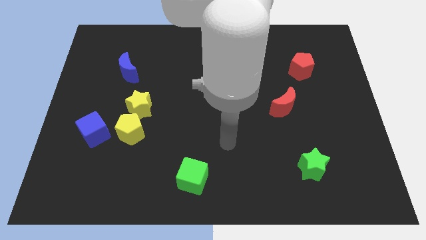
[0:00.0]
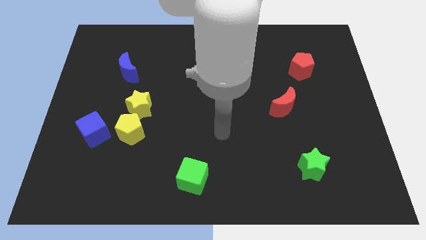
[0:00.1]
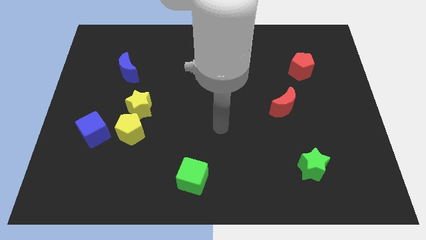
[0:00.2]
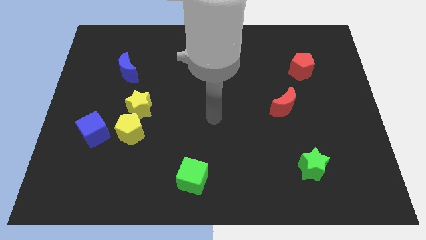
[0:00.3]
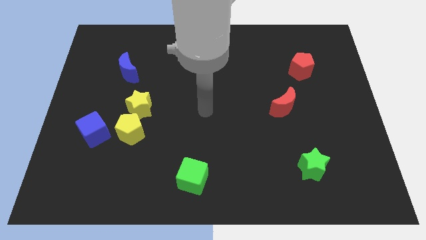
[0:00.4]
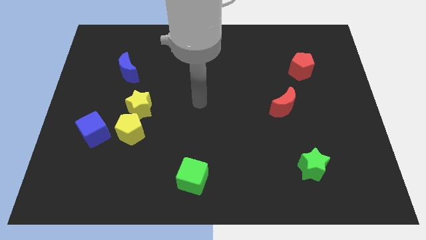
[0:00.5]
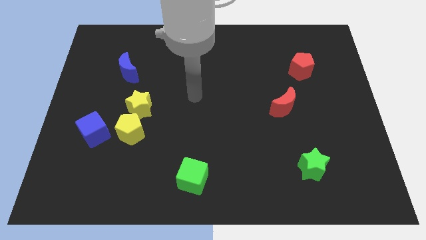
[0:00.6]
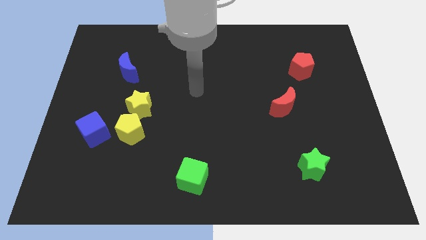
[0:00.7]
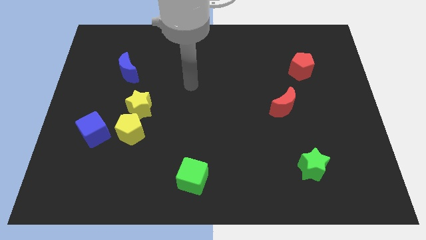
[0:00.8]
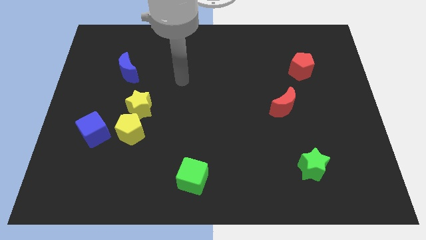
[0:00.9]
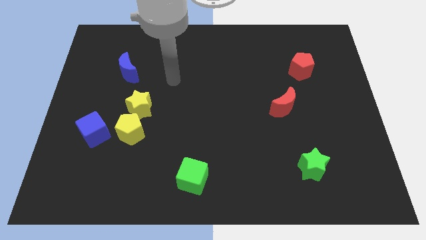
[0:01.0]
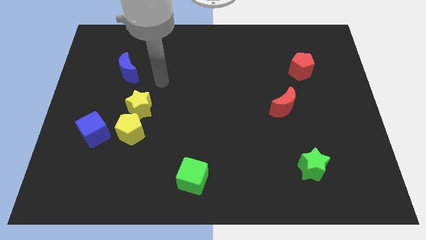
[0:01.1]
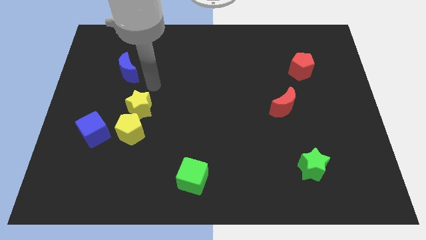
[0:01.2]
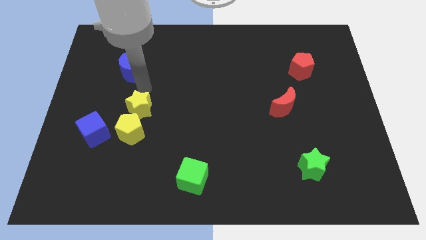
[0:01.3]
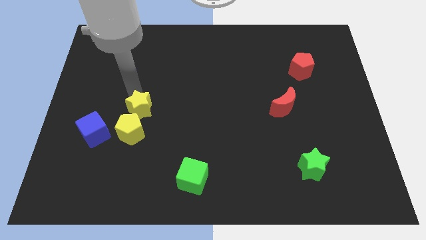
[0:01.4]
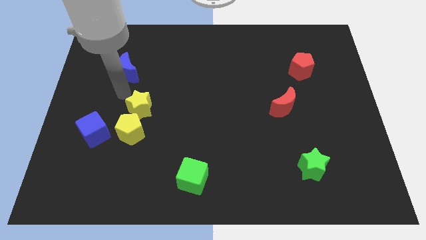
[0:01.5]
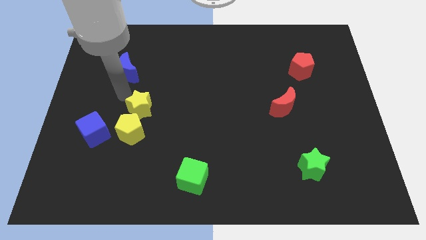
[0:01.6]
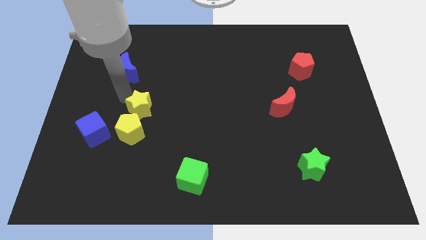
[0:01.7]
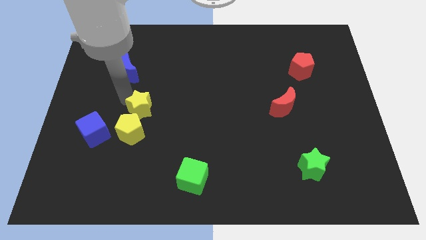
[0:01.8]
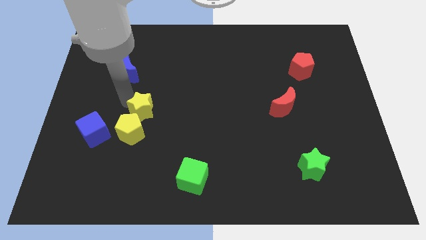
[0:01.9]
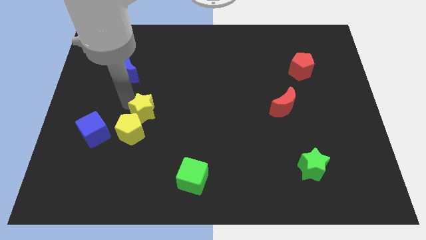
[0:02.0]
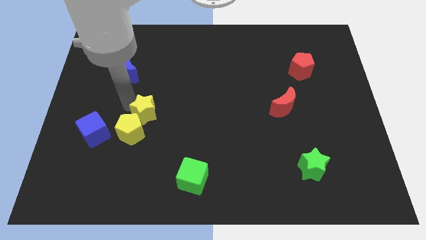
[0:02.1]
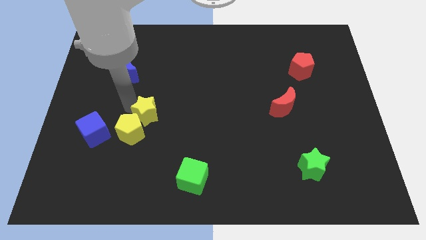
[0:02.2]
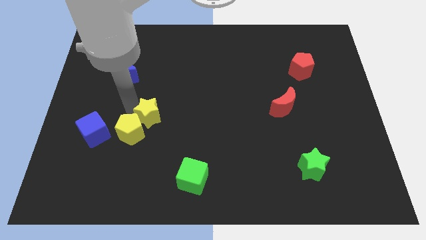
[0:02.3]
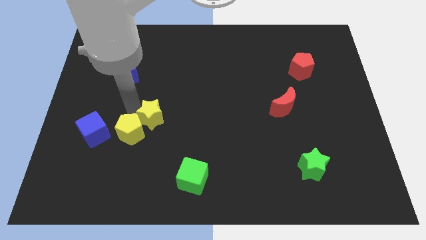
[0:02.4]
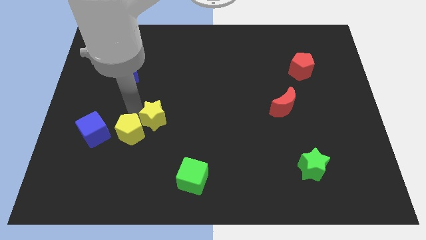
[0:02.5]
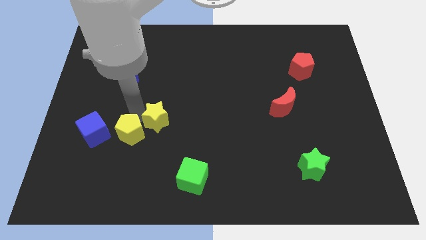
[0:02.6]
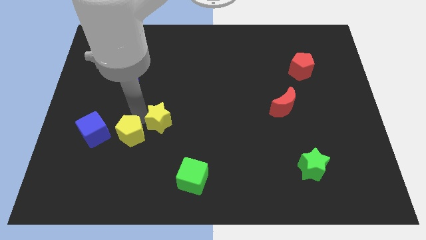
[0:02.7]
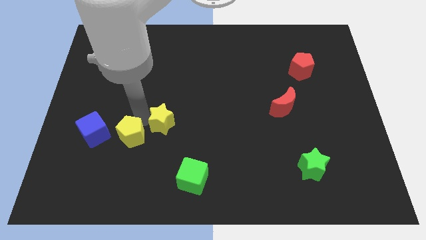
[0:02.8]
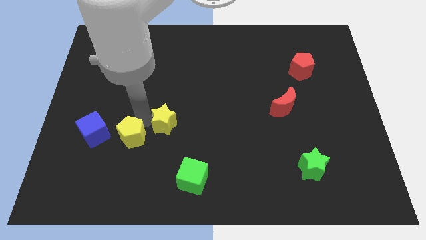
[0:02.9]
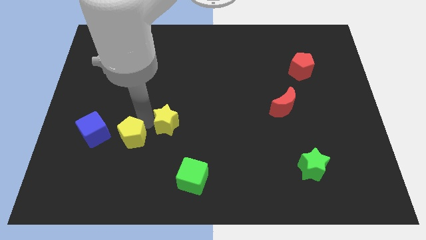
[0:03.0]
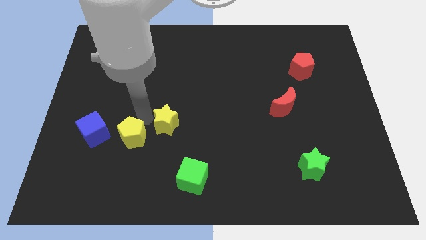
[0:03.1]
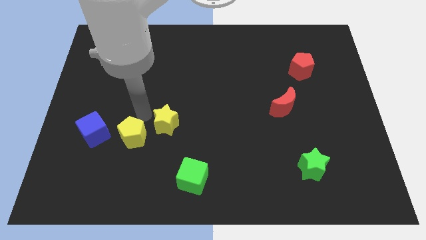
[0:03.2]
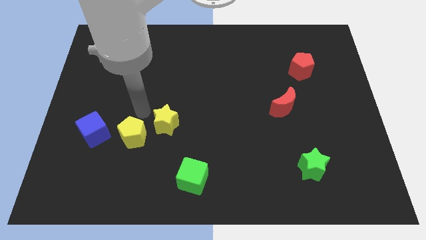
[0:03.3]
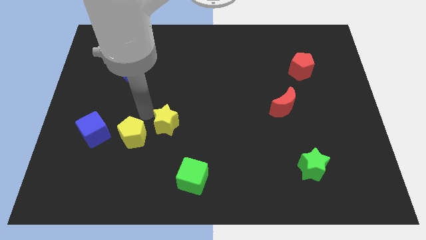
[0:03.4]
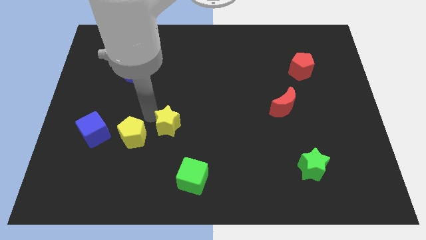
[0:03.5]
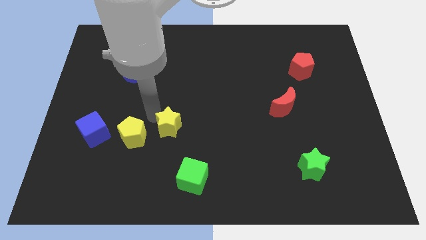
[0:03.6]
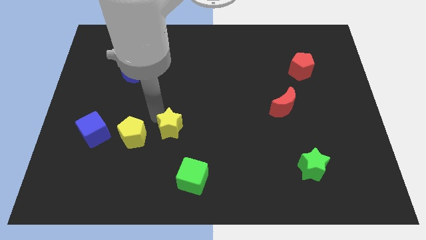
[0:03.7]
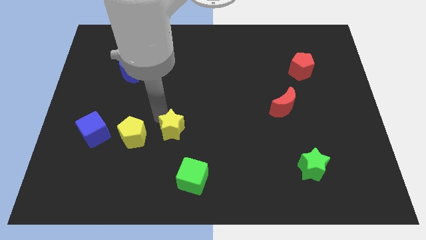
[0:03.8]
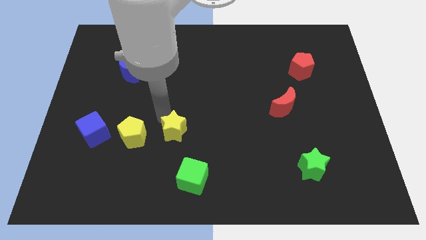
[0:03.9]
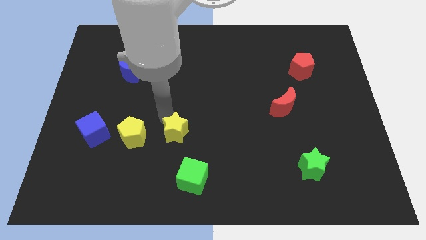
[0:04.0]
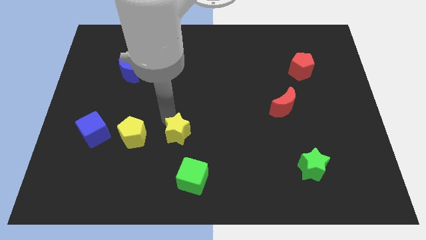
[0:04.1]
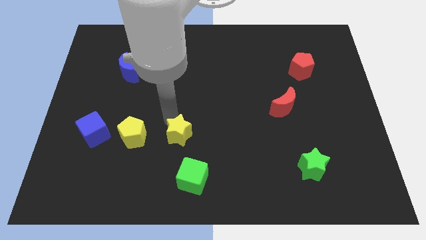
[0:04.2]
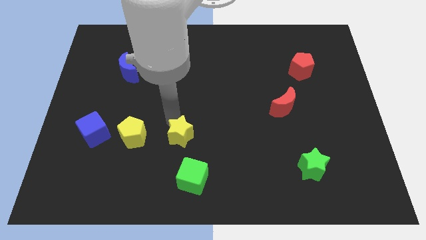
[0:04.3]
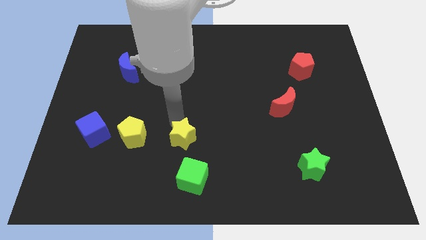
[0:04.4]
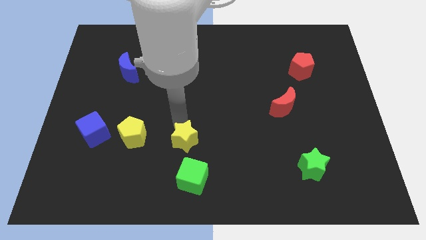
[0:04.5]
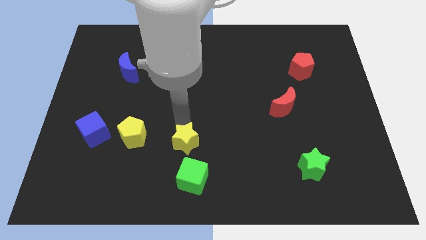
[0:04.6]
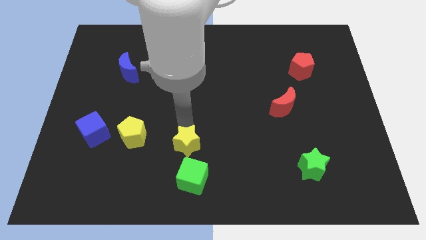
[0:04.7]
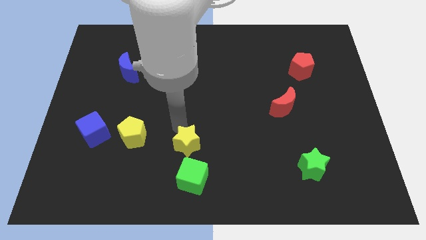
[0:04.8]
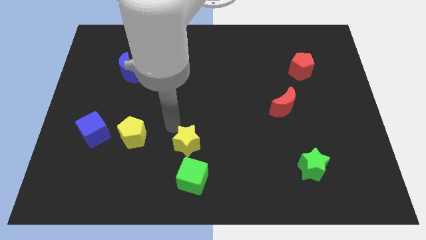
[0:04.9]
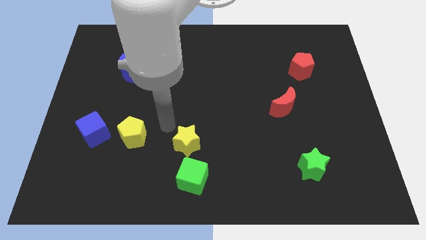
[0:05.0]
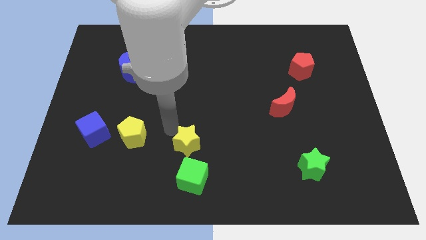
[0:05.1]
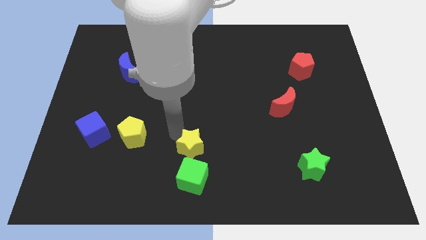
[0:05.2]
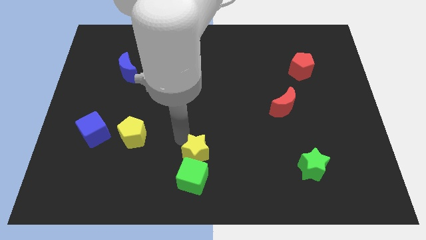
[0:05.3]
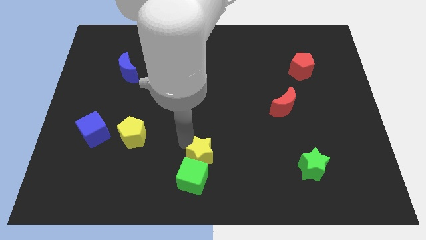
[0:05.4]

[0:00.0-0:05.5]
move the yellow star to the bottom side
